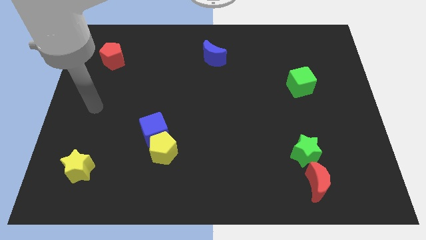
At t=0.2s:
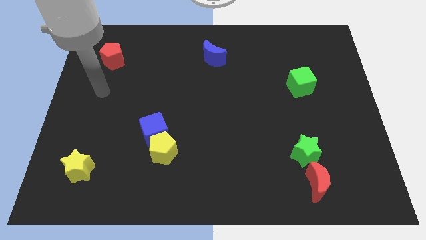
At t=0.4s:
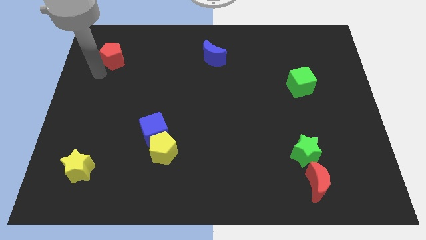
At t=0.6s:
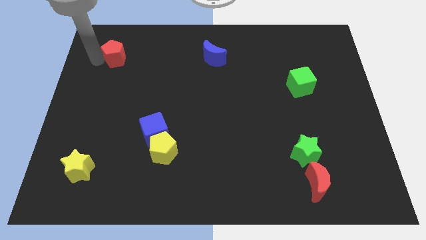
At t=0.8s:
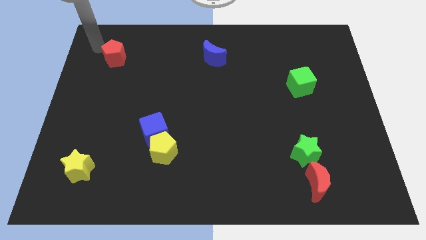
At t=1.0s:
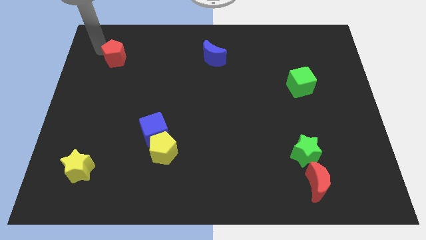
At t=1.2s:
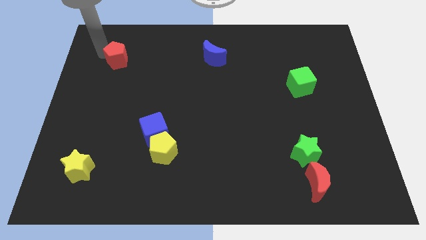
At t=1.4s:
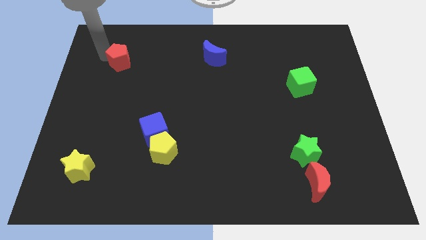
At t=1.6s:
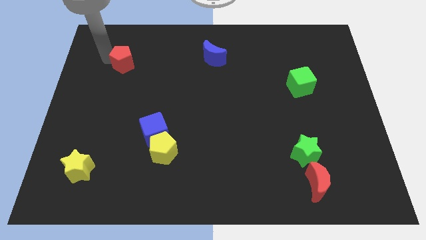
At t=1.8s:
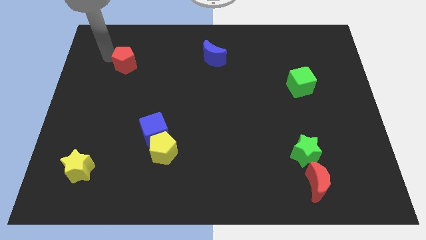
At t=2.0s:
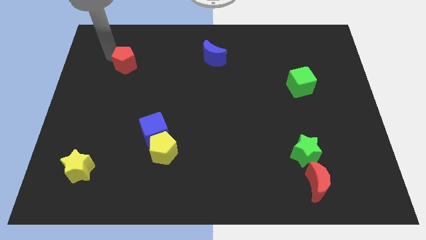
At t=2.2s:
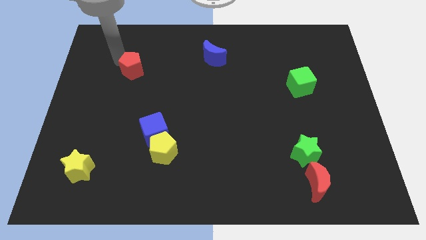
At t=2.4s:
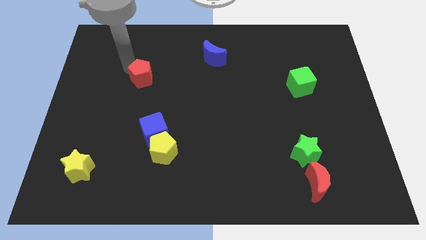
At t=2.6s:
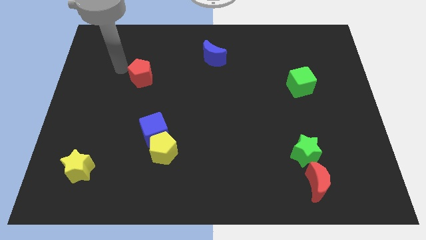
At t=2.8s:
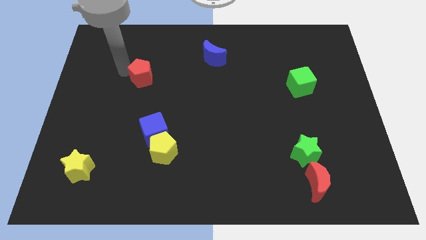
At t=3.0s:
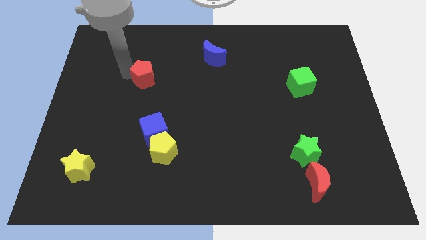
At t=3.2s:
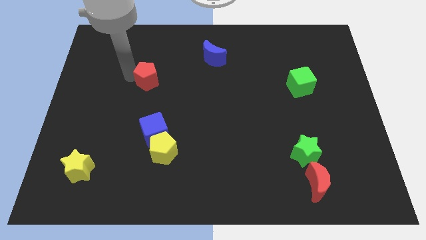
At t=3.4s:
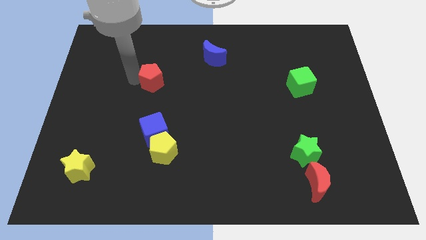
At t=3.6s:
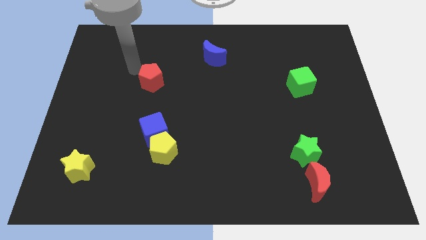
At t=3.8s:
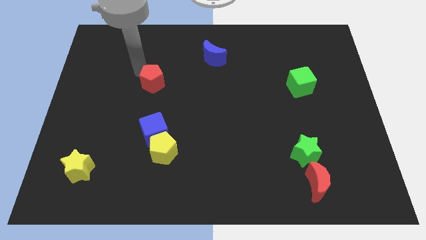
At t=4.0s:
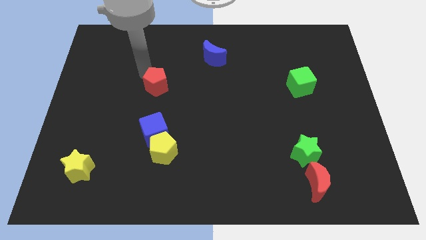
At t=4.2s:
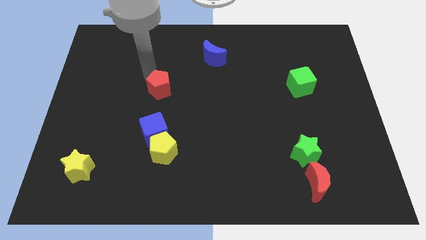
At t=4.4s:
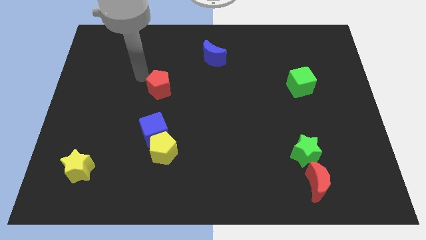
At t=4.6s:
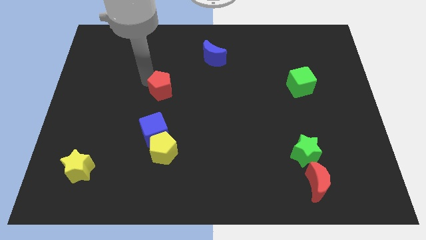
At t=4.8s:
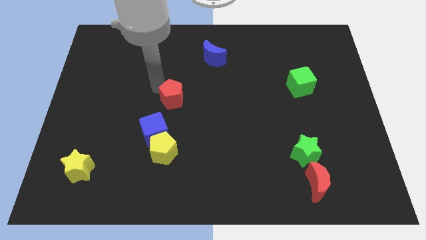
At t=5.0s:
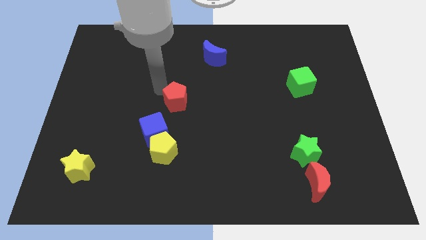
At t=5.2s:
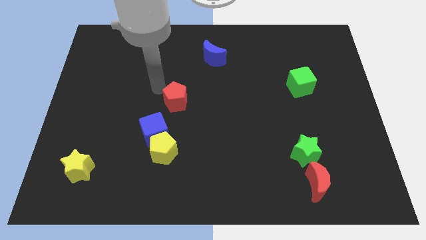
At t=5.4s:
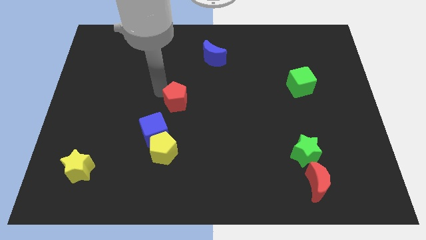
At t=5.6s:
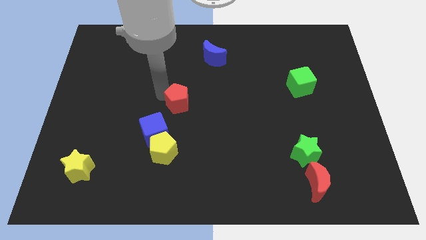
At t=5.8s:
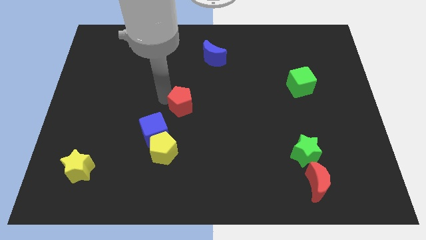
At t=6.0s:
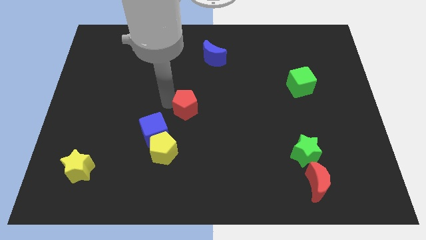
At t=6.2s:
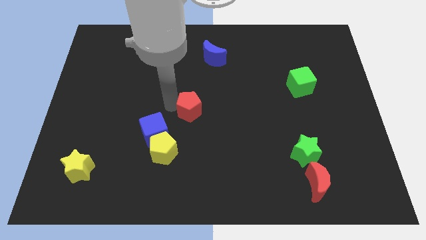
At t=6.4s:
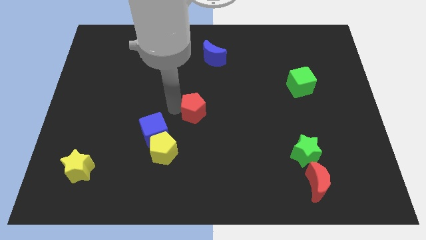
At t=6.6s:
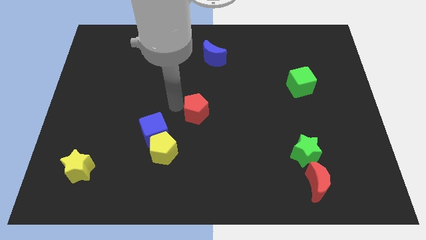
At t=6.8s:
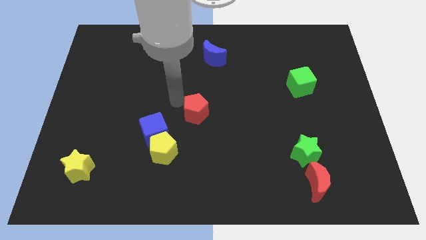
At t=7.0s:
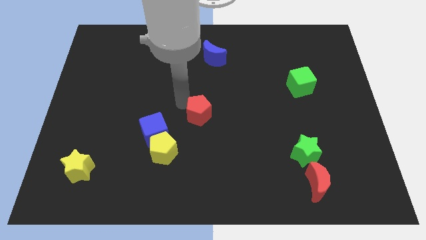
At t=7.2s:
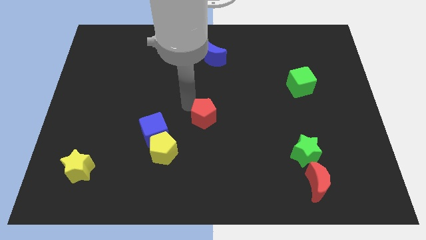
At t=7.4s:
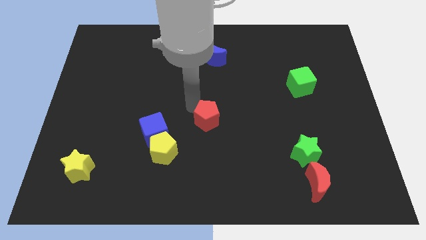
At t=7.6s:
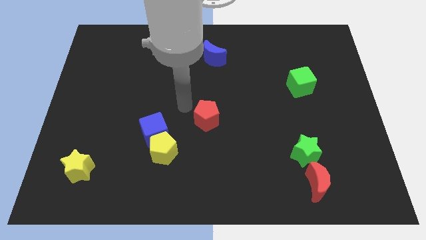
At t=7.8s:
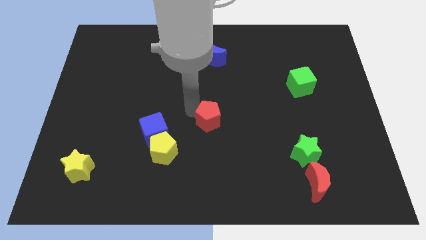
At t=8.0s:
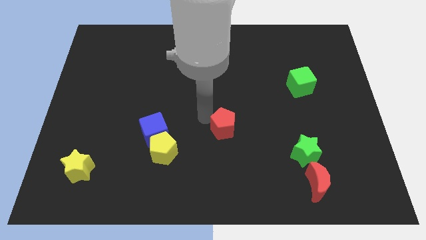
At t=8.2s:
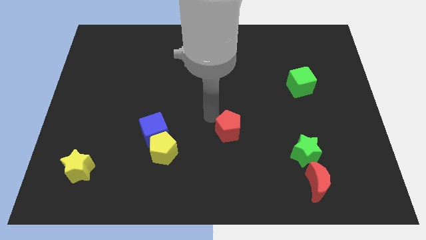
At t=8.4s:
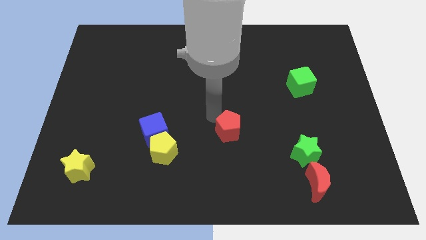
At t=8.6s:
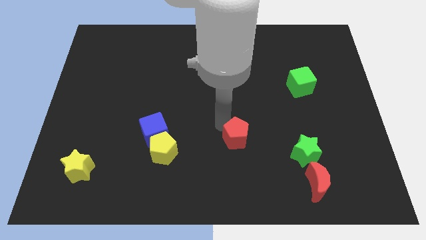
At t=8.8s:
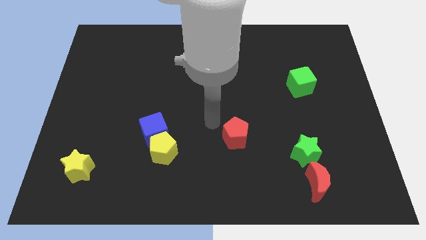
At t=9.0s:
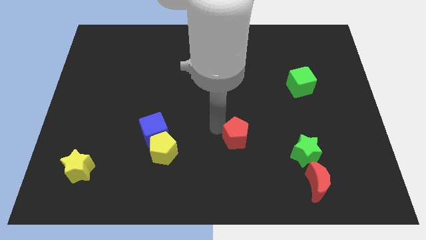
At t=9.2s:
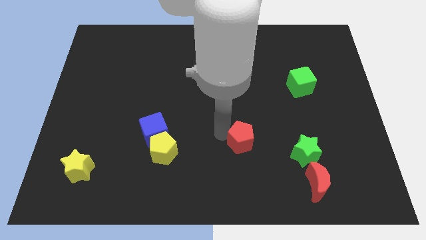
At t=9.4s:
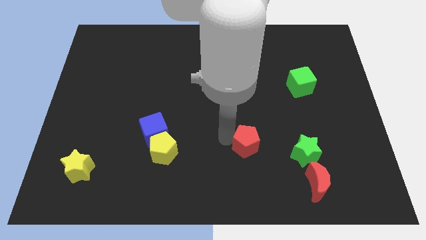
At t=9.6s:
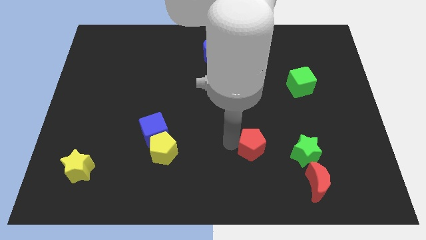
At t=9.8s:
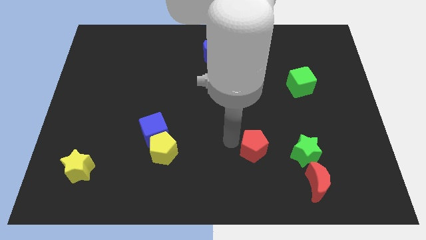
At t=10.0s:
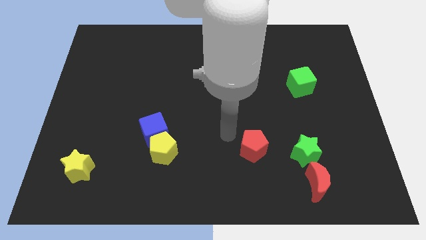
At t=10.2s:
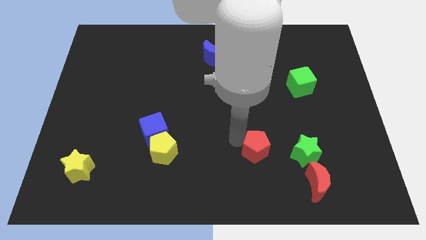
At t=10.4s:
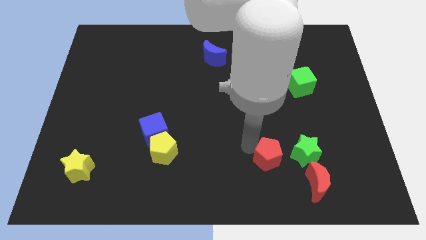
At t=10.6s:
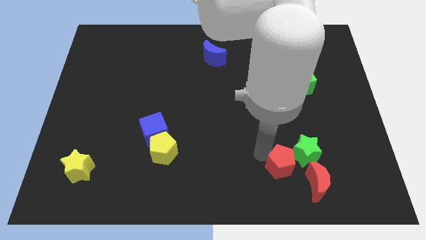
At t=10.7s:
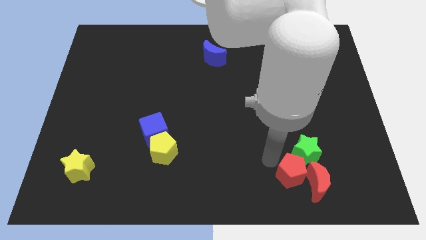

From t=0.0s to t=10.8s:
slide the red pentagon next to the red moon

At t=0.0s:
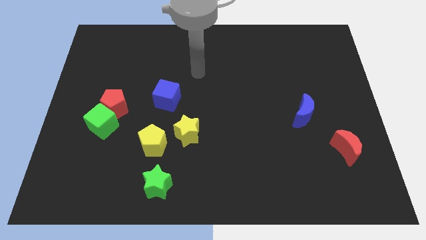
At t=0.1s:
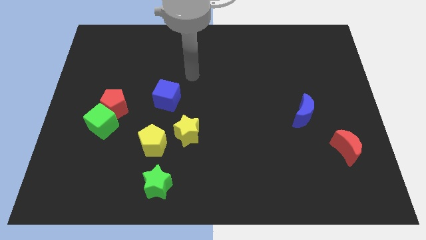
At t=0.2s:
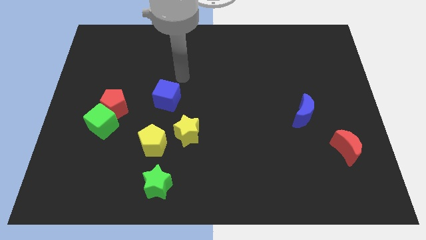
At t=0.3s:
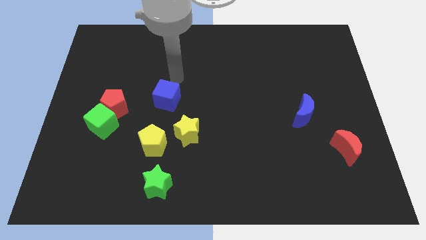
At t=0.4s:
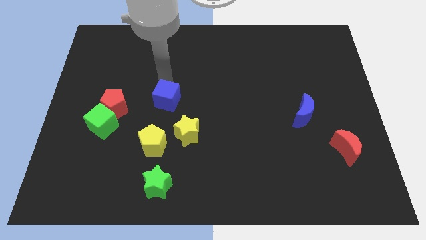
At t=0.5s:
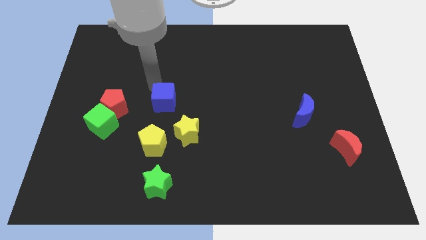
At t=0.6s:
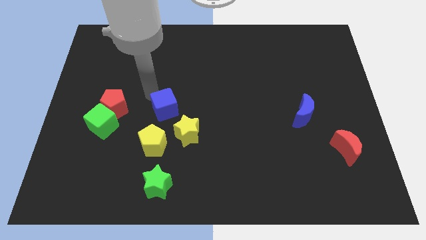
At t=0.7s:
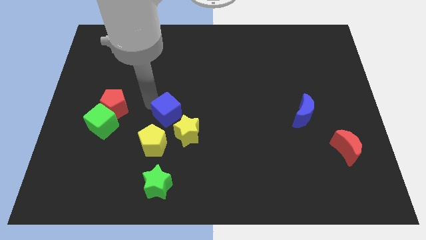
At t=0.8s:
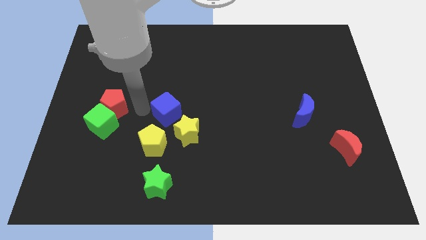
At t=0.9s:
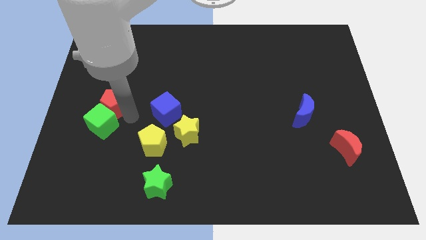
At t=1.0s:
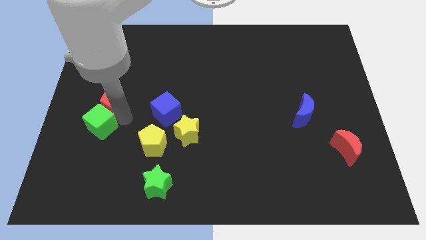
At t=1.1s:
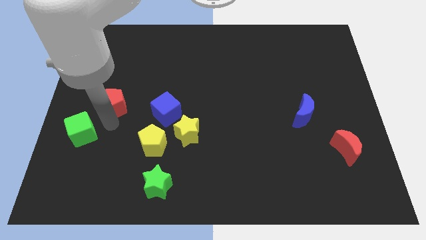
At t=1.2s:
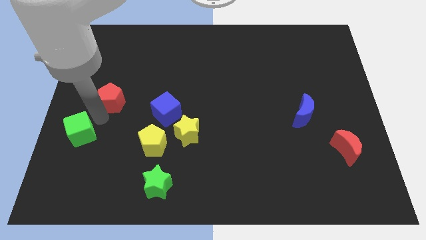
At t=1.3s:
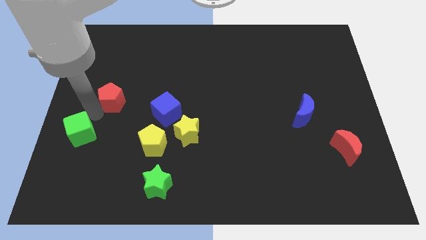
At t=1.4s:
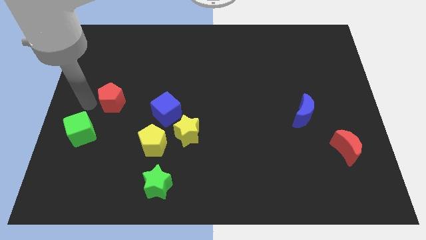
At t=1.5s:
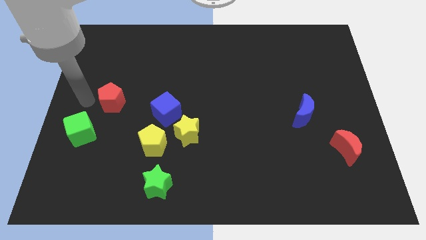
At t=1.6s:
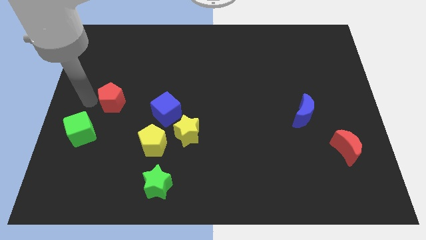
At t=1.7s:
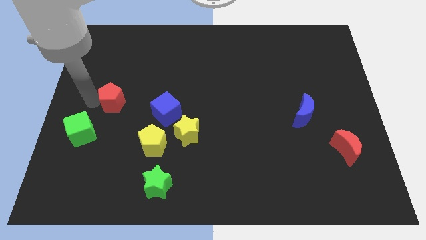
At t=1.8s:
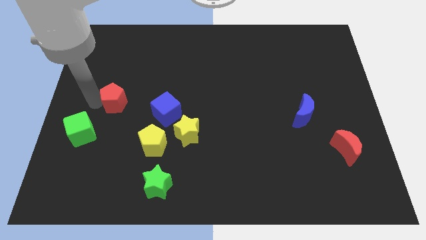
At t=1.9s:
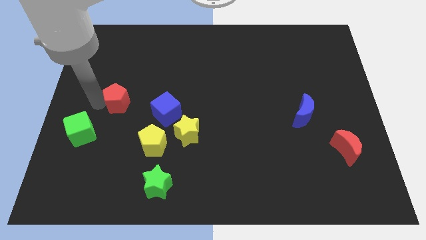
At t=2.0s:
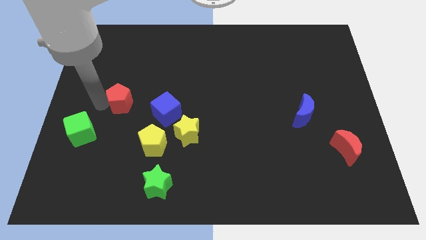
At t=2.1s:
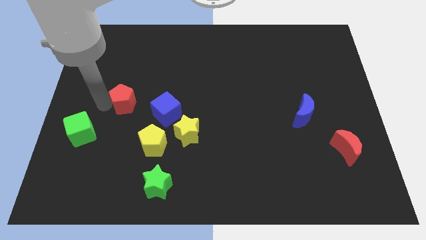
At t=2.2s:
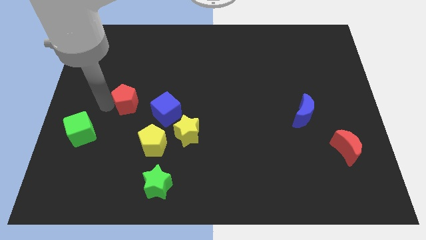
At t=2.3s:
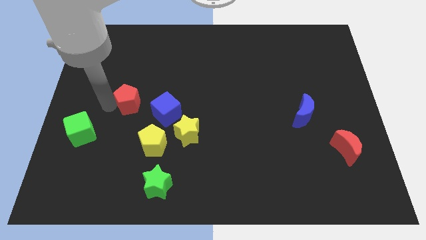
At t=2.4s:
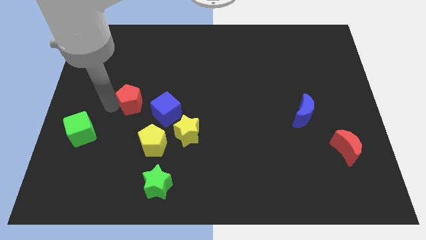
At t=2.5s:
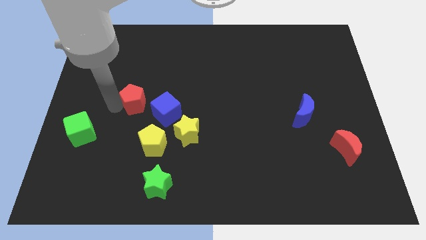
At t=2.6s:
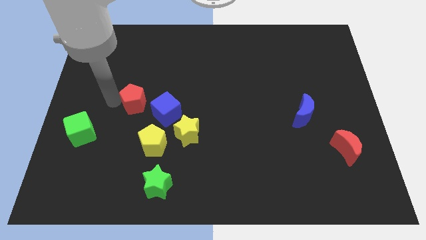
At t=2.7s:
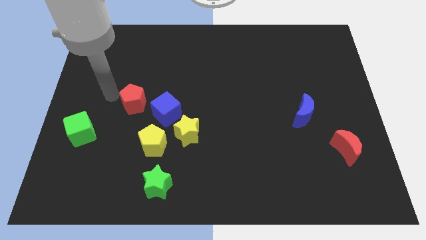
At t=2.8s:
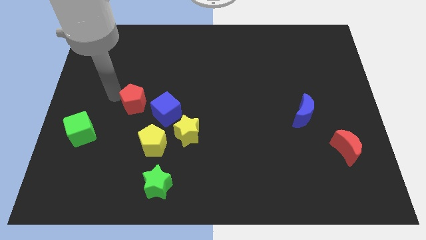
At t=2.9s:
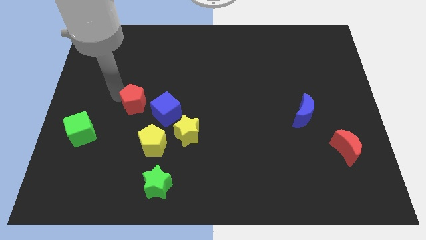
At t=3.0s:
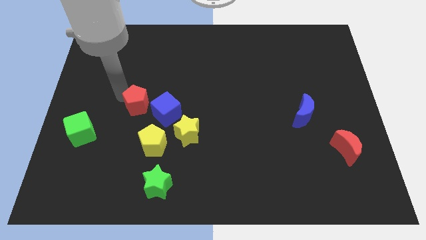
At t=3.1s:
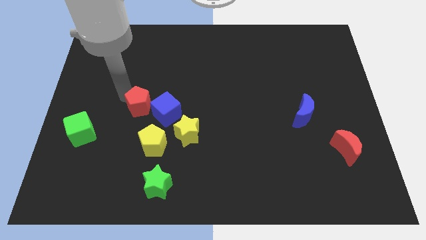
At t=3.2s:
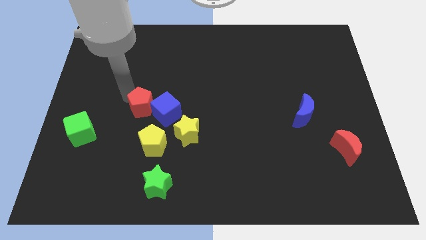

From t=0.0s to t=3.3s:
put the red pentagon to the blue cube
